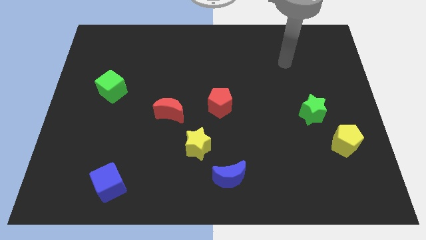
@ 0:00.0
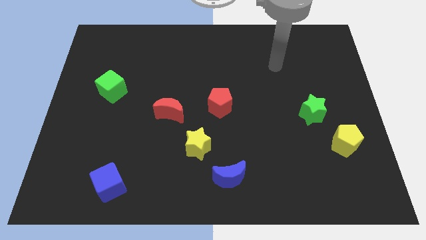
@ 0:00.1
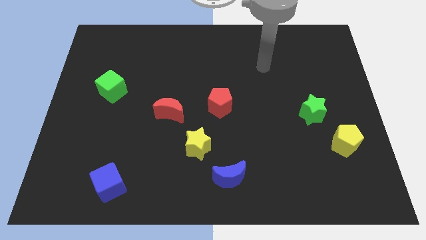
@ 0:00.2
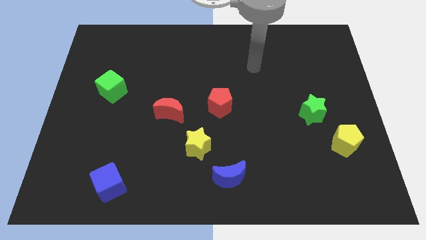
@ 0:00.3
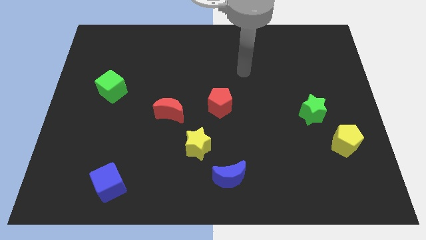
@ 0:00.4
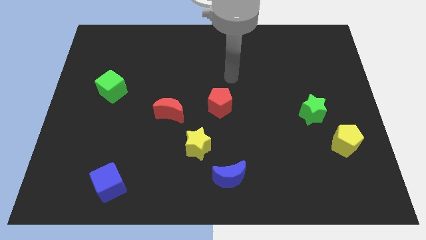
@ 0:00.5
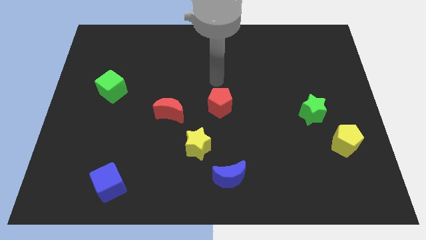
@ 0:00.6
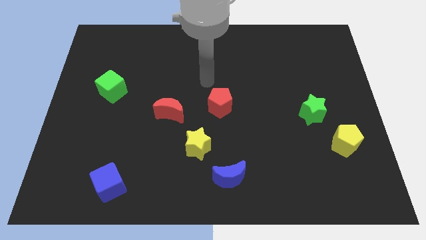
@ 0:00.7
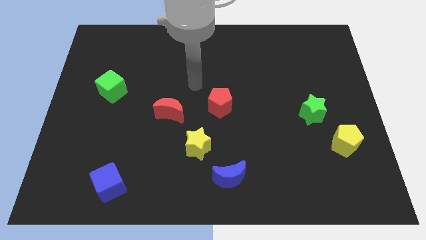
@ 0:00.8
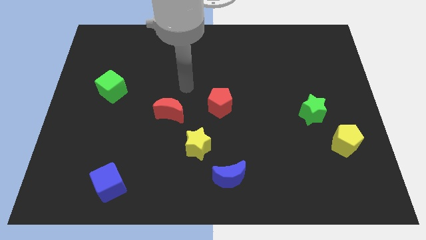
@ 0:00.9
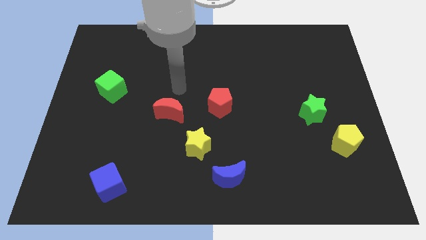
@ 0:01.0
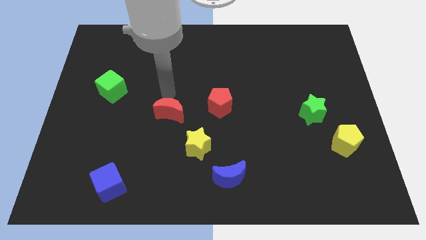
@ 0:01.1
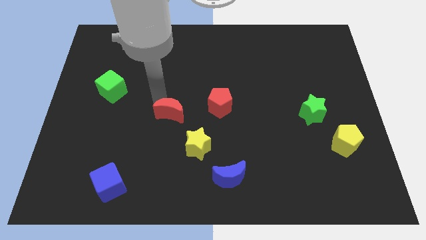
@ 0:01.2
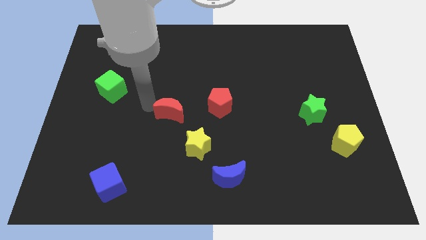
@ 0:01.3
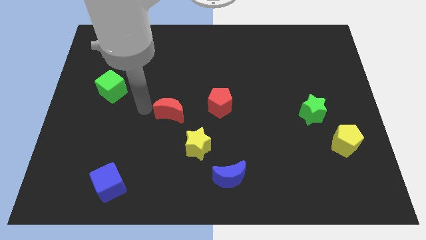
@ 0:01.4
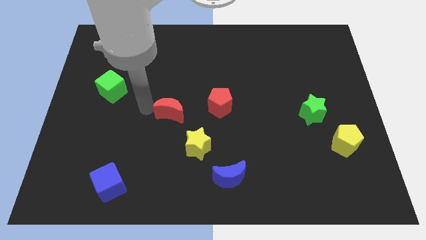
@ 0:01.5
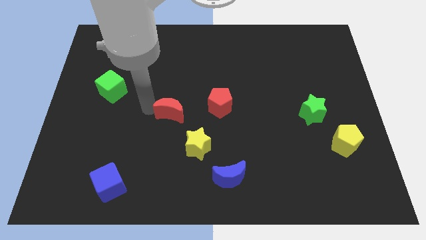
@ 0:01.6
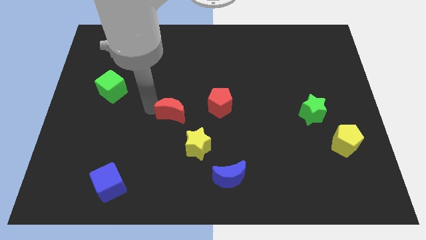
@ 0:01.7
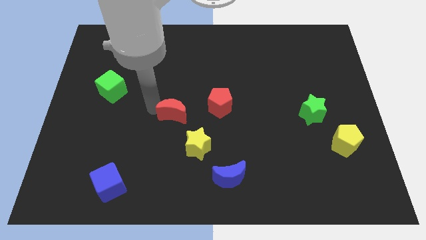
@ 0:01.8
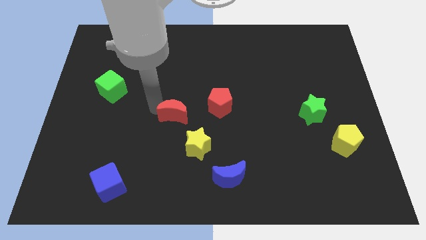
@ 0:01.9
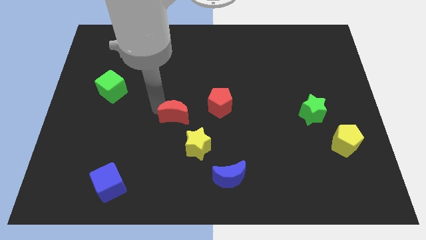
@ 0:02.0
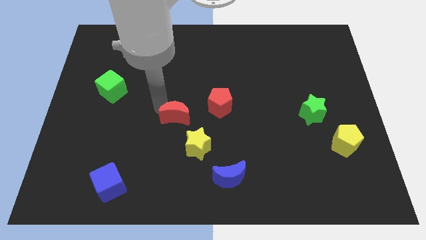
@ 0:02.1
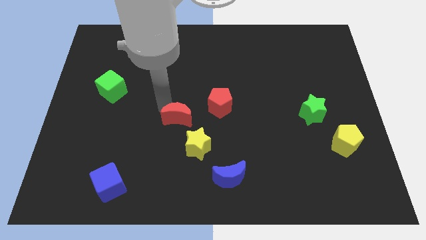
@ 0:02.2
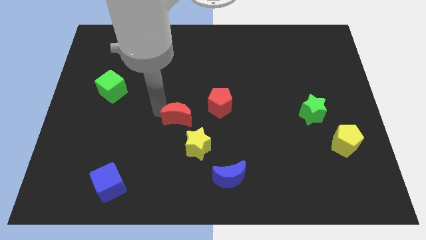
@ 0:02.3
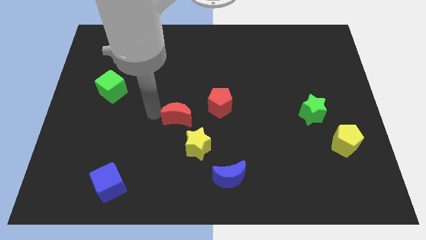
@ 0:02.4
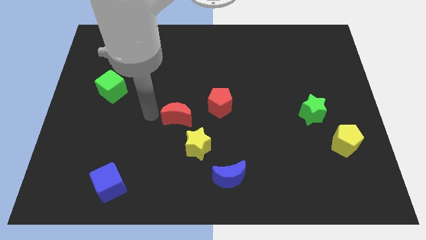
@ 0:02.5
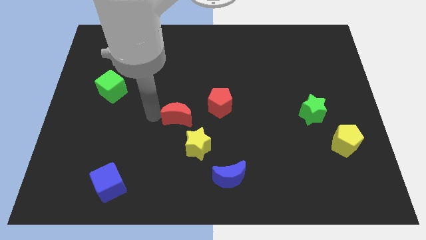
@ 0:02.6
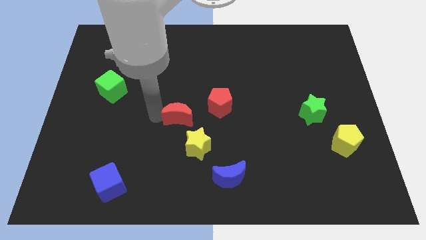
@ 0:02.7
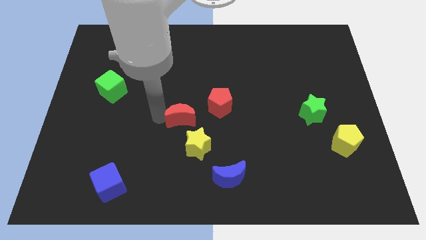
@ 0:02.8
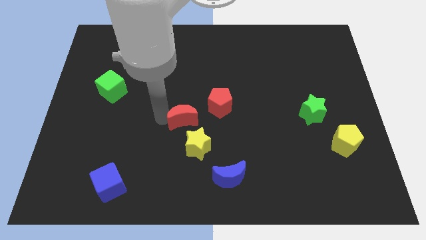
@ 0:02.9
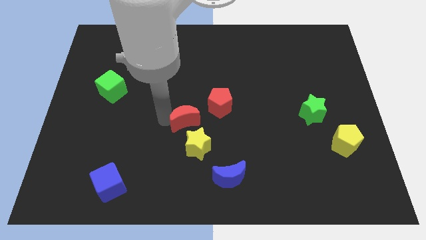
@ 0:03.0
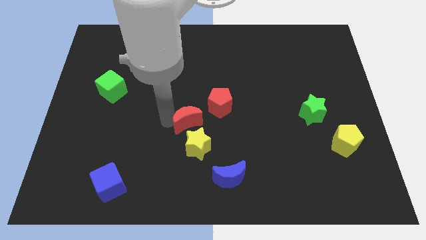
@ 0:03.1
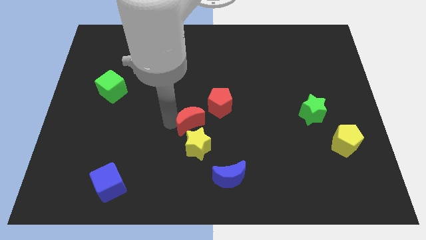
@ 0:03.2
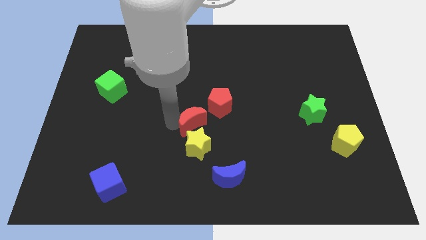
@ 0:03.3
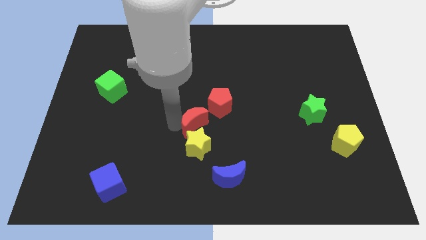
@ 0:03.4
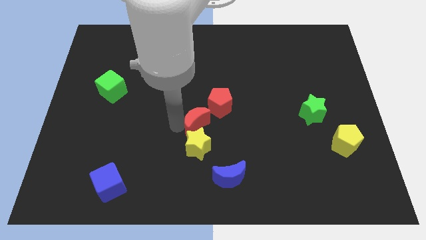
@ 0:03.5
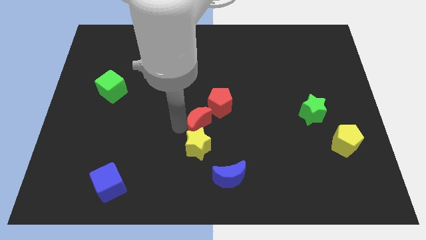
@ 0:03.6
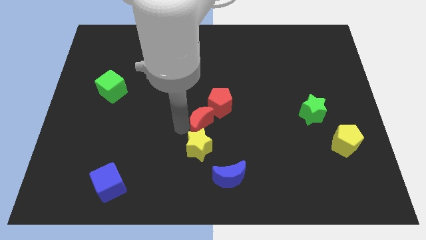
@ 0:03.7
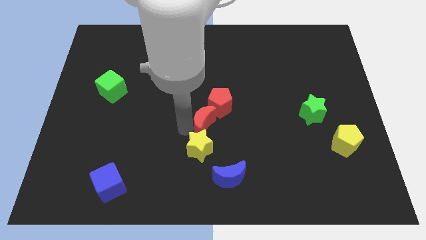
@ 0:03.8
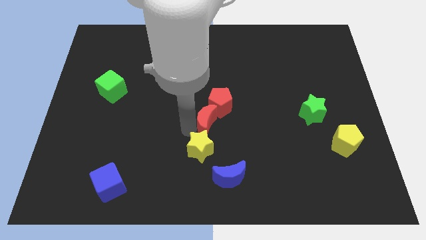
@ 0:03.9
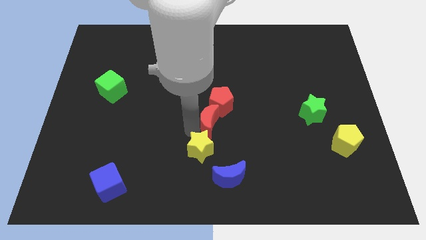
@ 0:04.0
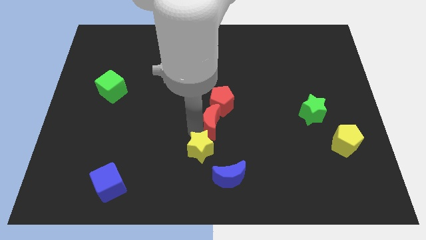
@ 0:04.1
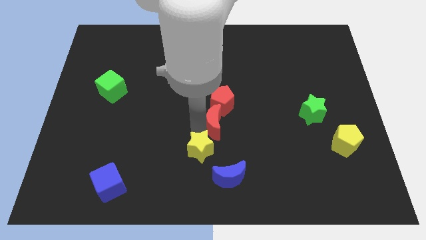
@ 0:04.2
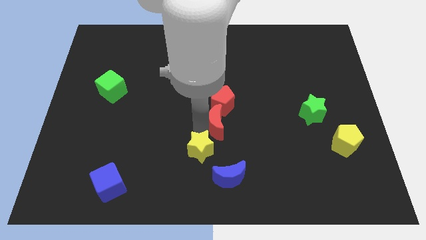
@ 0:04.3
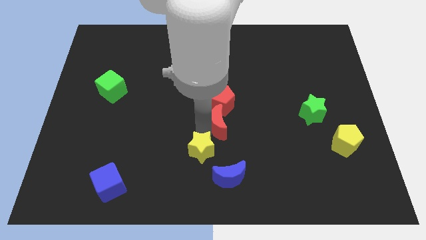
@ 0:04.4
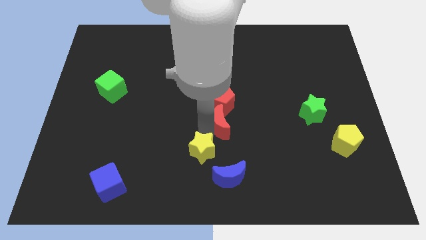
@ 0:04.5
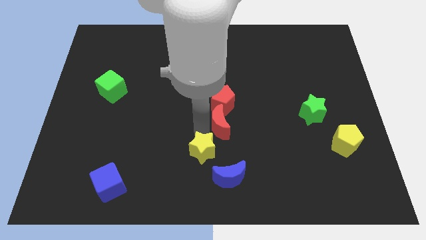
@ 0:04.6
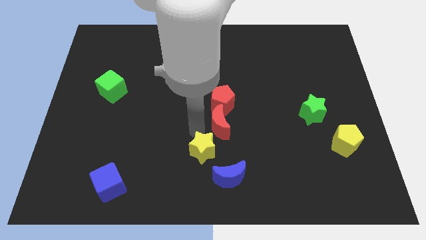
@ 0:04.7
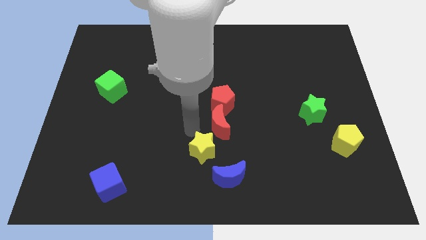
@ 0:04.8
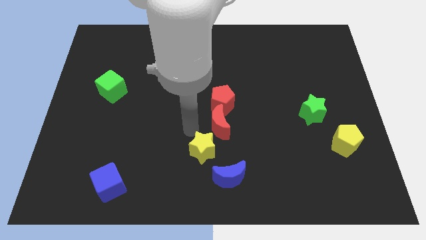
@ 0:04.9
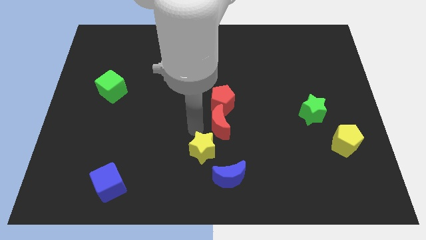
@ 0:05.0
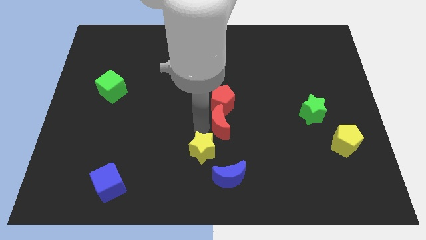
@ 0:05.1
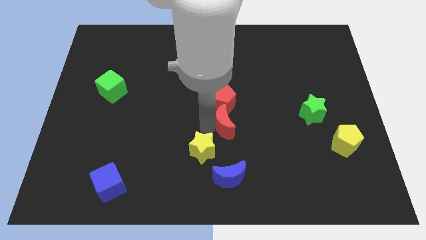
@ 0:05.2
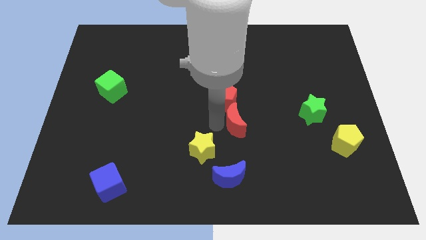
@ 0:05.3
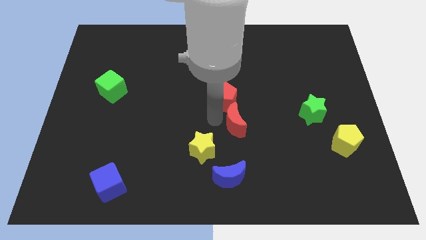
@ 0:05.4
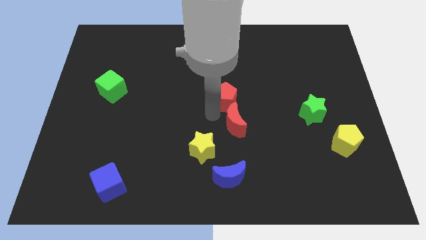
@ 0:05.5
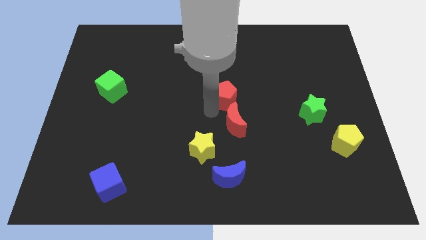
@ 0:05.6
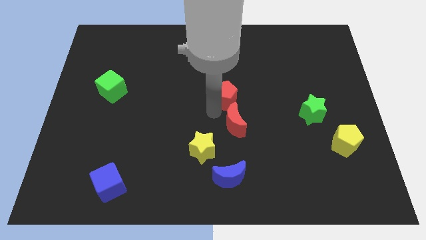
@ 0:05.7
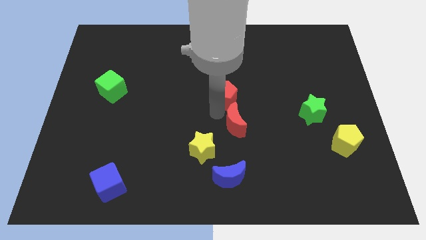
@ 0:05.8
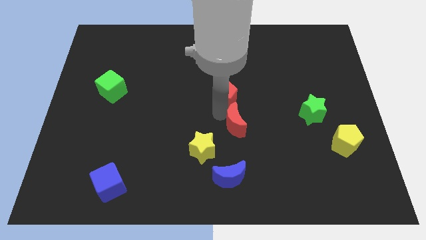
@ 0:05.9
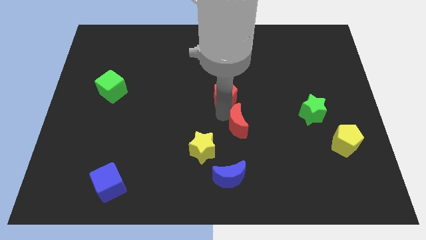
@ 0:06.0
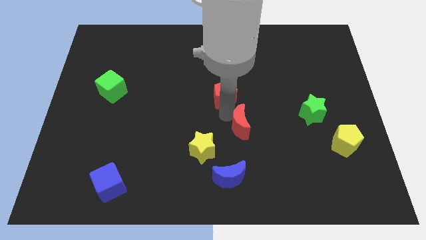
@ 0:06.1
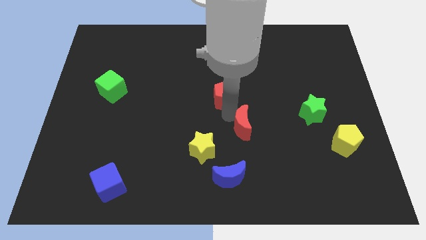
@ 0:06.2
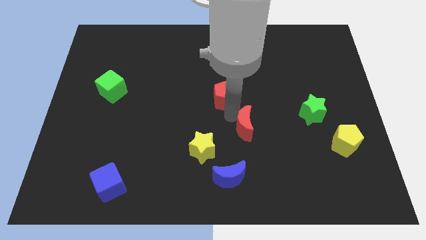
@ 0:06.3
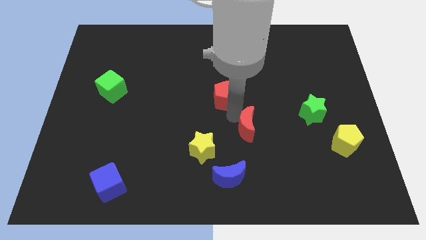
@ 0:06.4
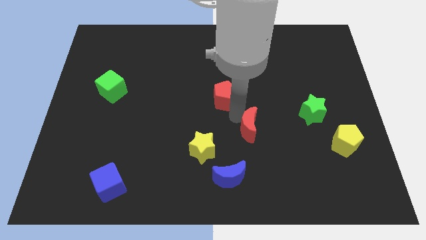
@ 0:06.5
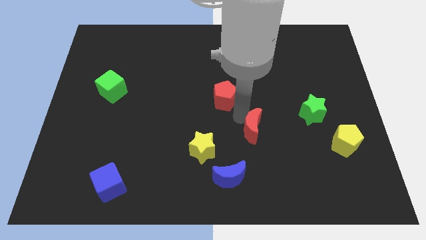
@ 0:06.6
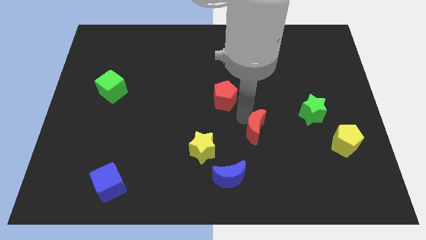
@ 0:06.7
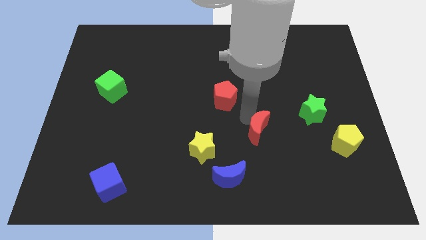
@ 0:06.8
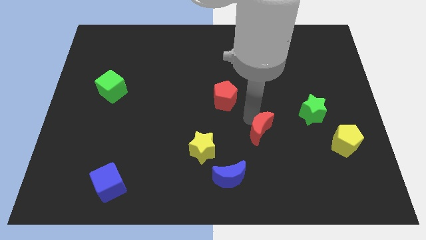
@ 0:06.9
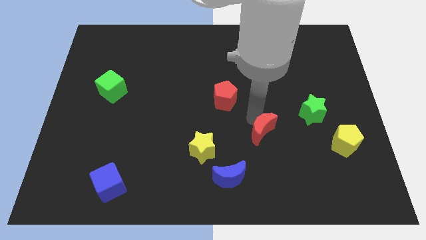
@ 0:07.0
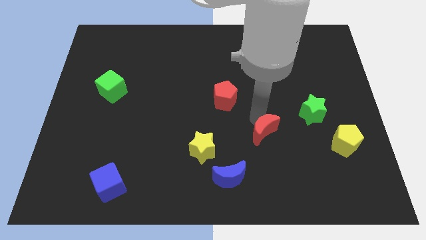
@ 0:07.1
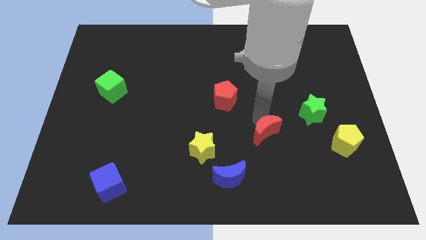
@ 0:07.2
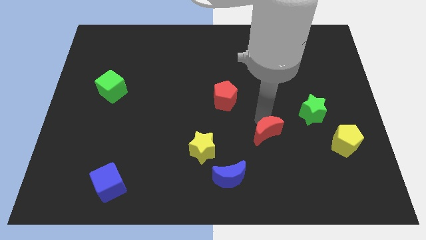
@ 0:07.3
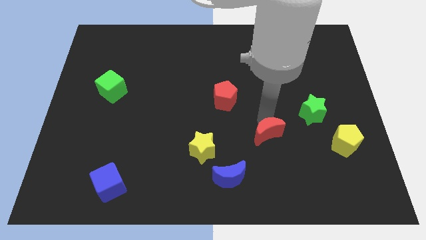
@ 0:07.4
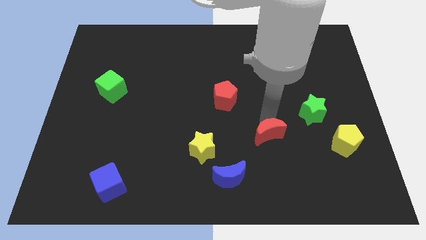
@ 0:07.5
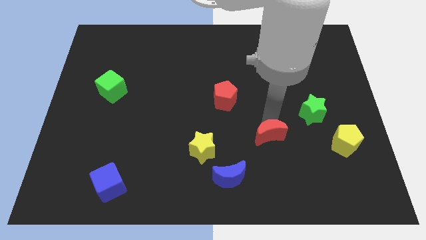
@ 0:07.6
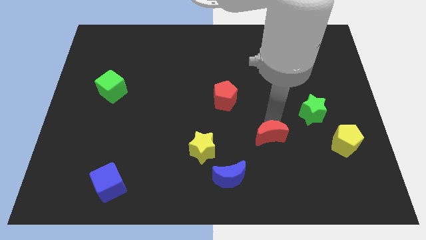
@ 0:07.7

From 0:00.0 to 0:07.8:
slide the red moon to the left side of the yellow pentagon
